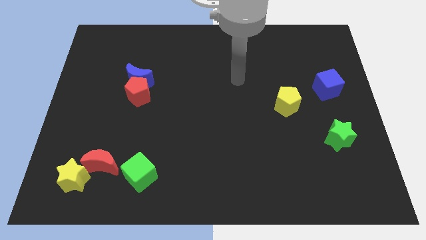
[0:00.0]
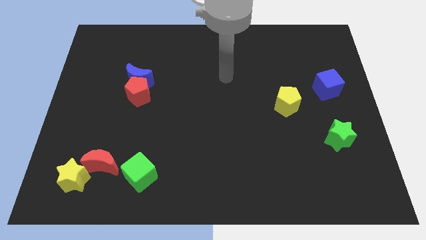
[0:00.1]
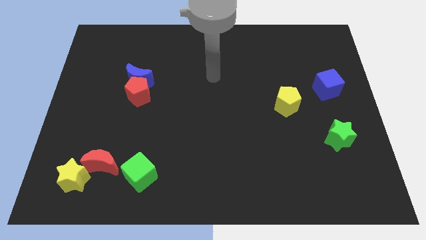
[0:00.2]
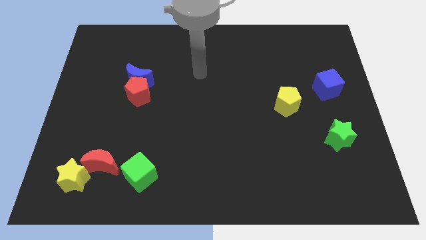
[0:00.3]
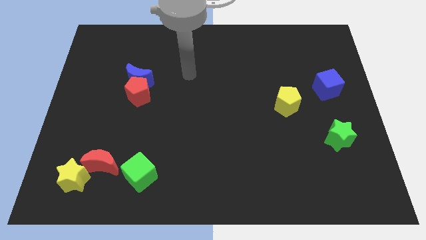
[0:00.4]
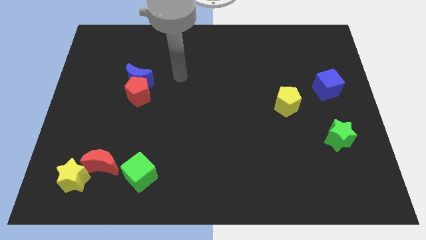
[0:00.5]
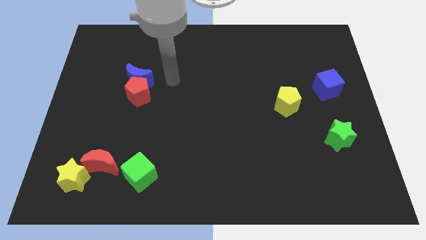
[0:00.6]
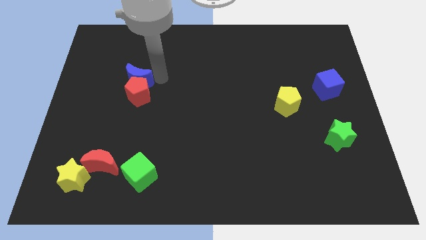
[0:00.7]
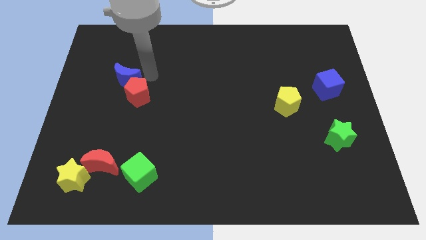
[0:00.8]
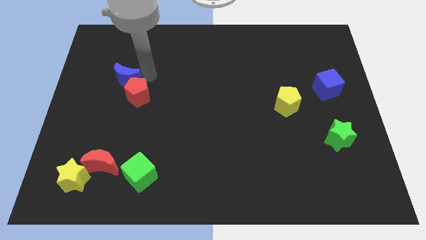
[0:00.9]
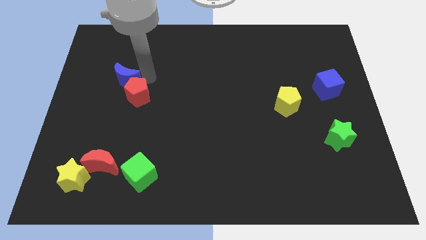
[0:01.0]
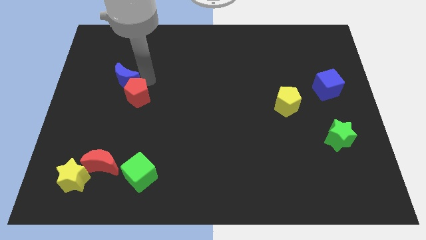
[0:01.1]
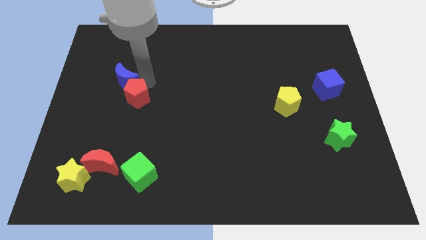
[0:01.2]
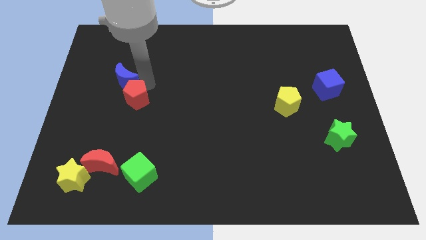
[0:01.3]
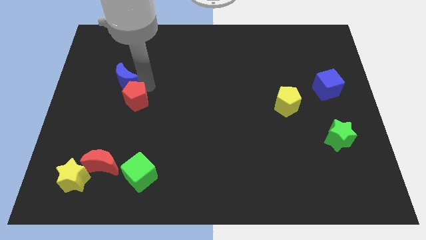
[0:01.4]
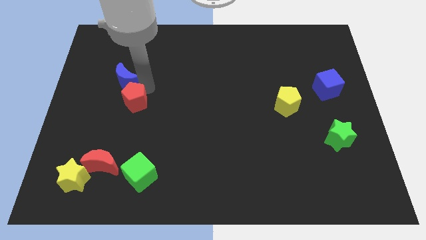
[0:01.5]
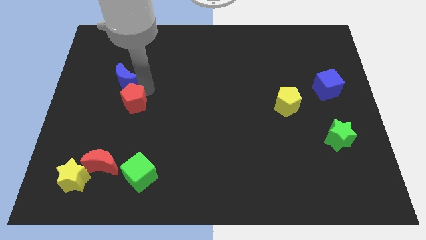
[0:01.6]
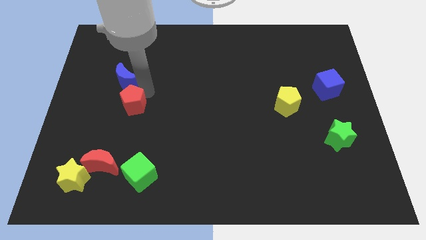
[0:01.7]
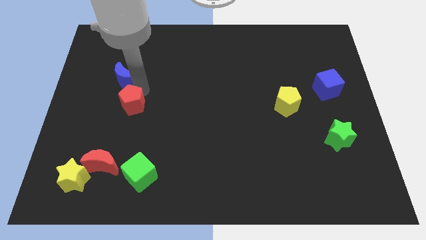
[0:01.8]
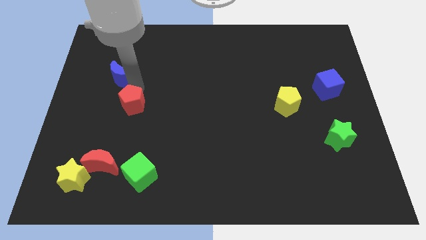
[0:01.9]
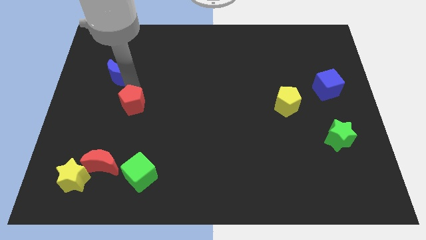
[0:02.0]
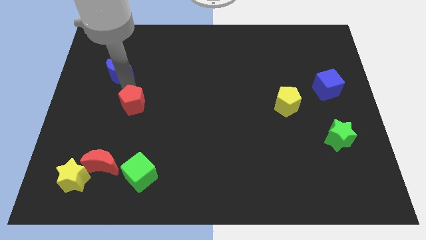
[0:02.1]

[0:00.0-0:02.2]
separate the red pentagon from the blue moon

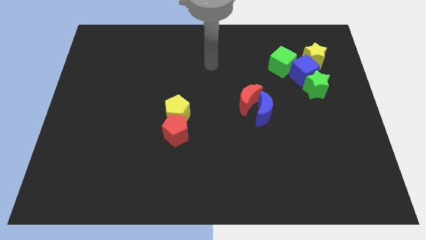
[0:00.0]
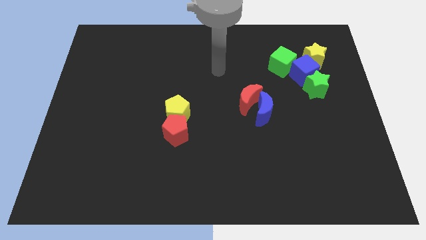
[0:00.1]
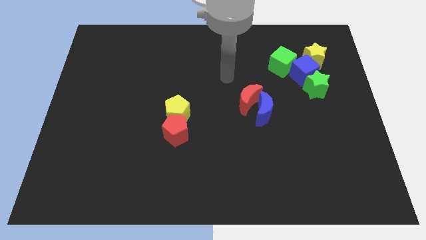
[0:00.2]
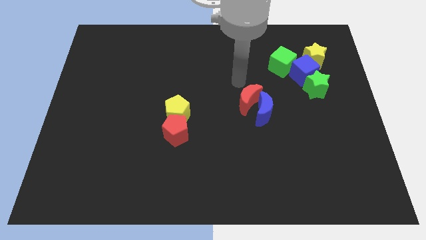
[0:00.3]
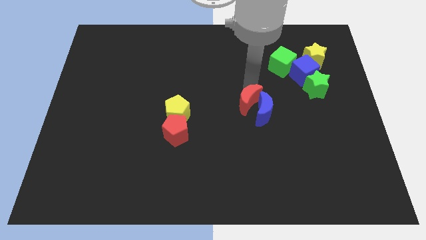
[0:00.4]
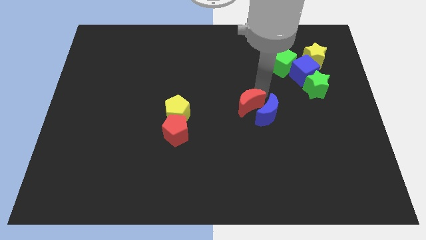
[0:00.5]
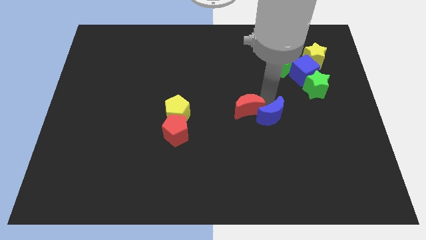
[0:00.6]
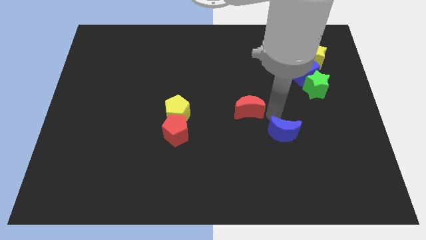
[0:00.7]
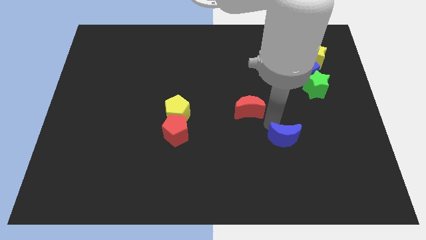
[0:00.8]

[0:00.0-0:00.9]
separate the red moon from the blue moon

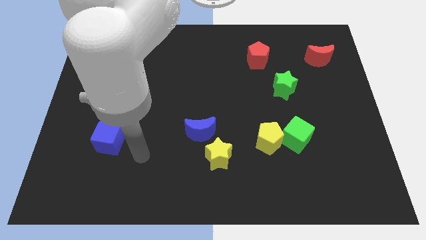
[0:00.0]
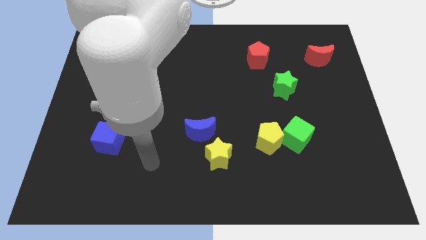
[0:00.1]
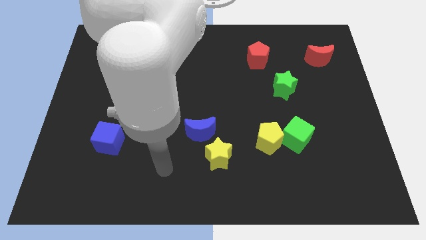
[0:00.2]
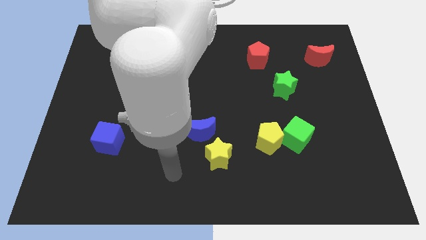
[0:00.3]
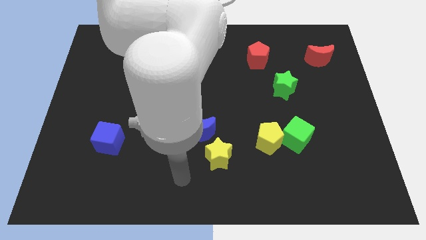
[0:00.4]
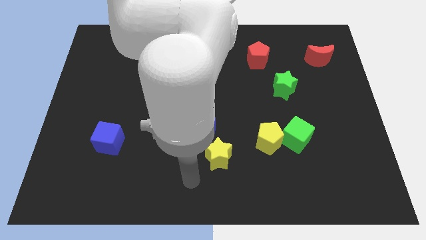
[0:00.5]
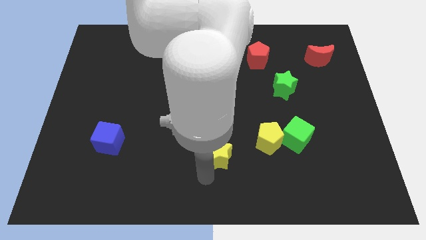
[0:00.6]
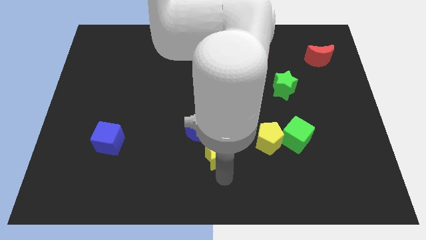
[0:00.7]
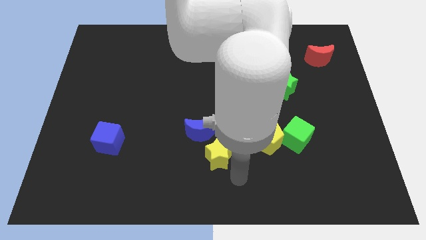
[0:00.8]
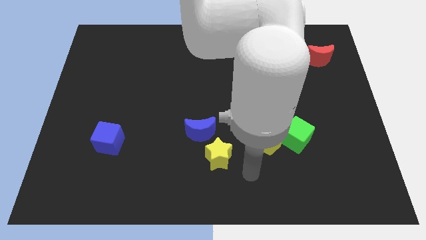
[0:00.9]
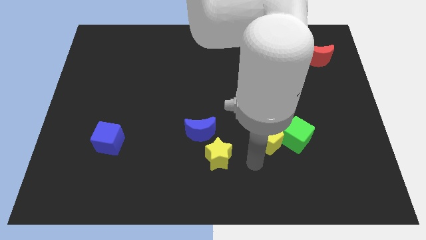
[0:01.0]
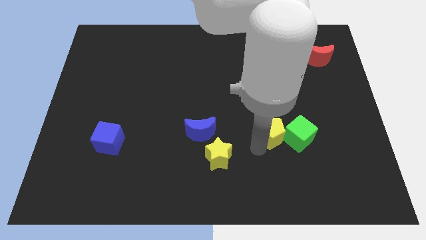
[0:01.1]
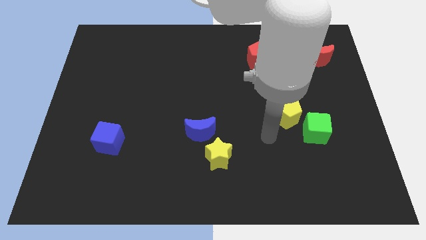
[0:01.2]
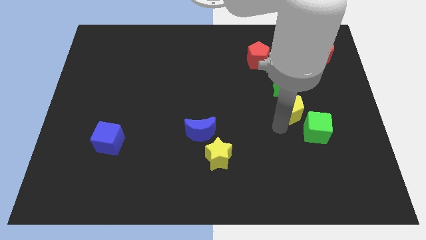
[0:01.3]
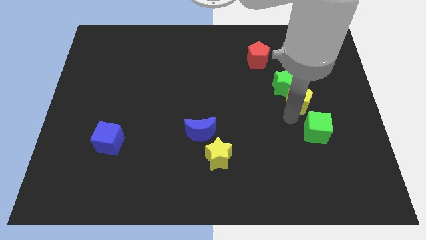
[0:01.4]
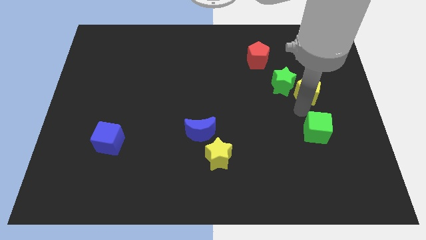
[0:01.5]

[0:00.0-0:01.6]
pull the green cube apart from the yellow pentagon

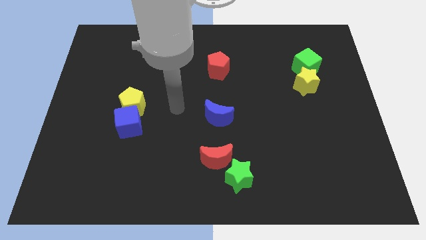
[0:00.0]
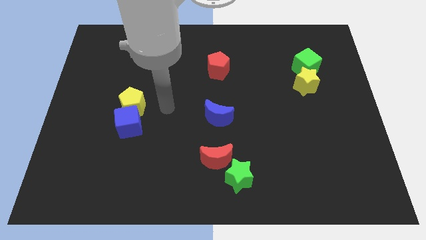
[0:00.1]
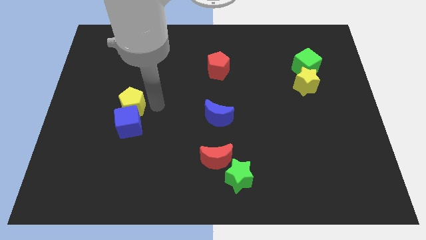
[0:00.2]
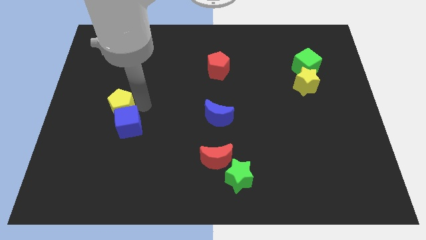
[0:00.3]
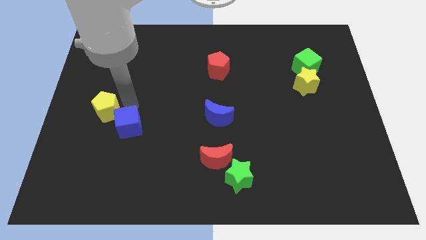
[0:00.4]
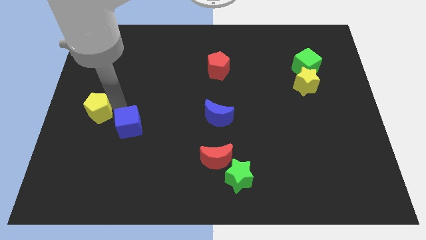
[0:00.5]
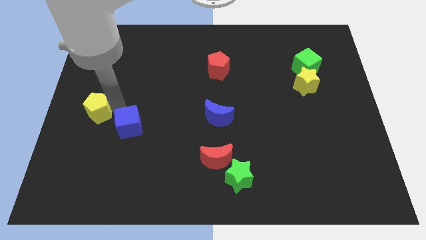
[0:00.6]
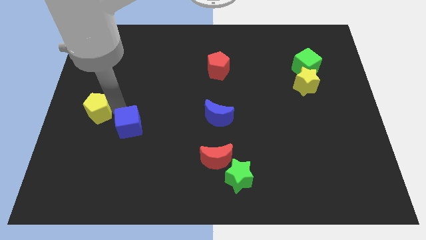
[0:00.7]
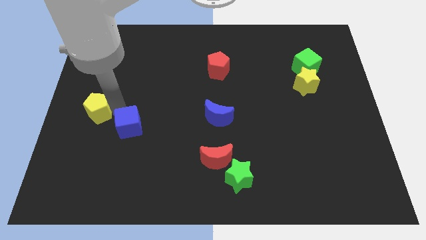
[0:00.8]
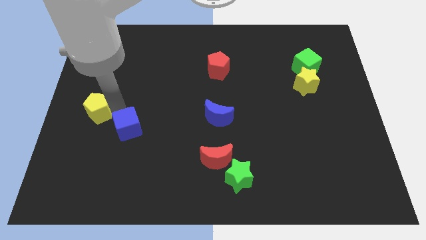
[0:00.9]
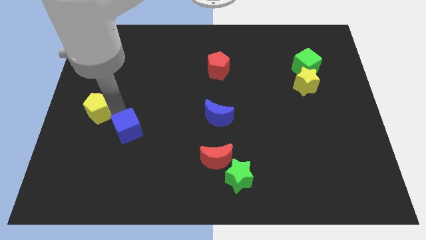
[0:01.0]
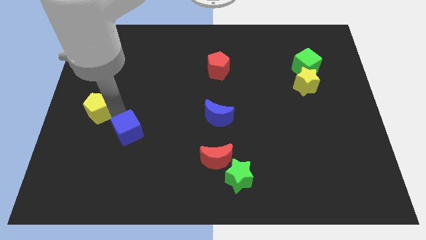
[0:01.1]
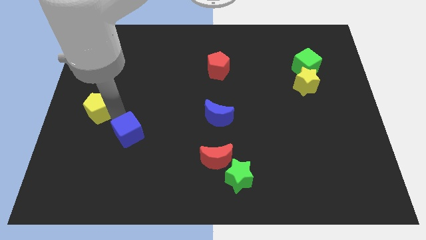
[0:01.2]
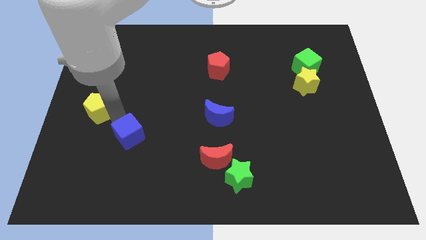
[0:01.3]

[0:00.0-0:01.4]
separate the blue cube from the yellow pentagon

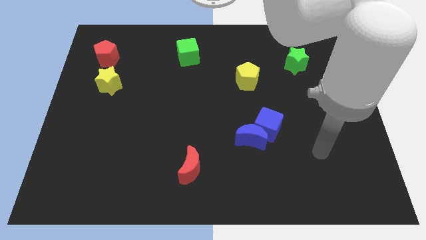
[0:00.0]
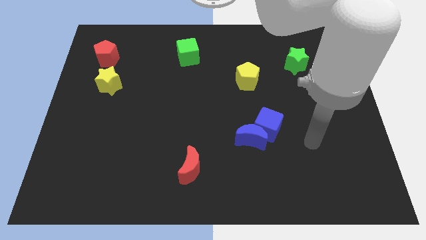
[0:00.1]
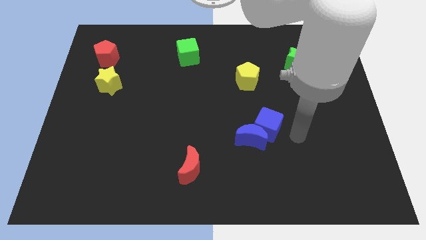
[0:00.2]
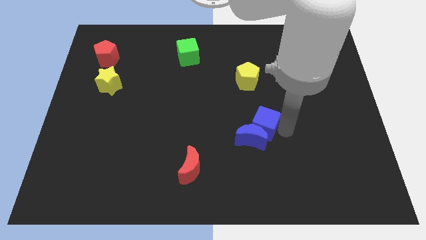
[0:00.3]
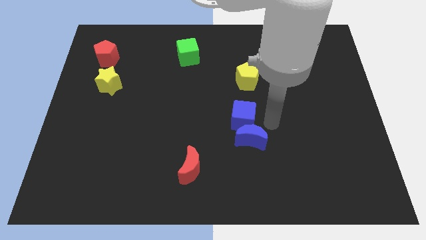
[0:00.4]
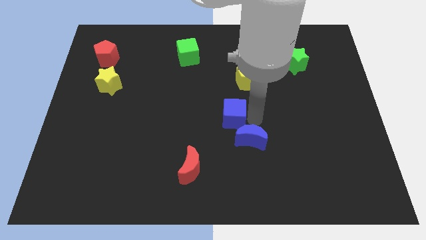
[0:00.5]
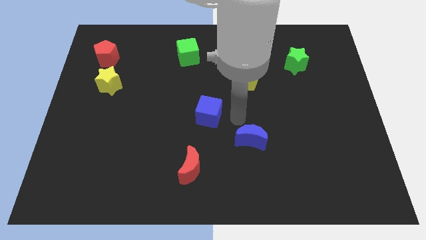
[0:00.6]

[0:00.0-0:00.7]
pull the blue moon apart from the blue cube

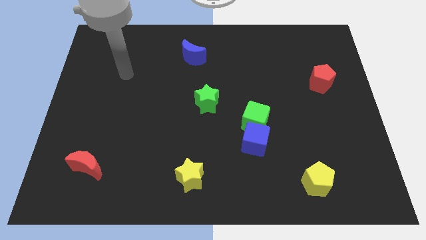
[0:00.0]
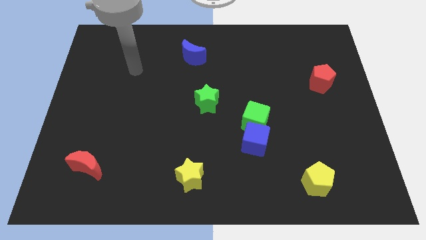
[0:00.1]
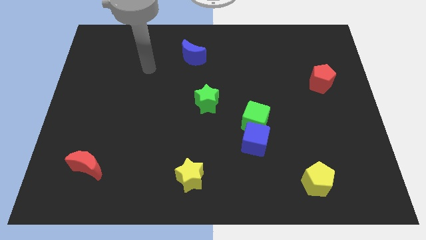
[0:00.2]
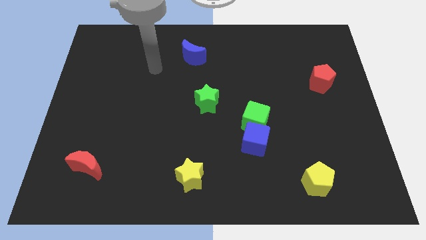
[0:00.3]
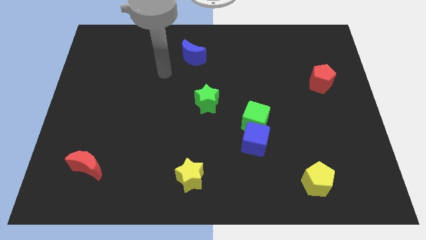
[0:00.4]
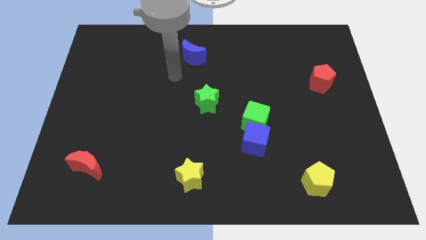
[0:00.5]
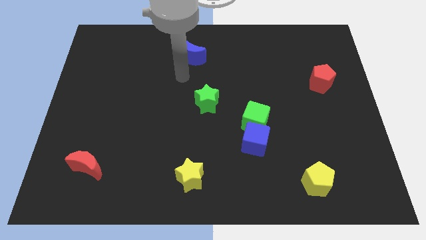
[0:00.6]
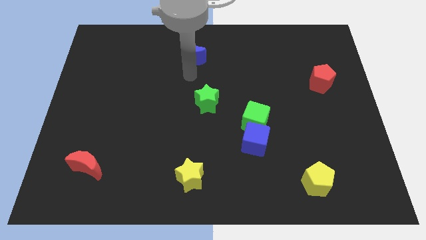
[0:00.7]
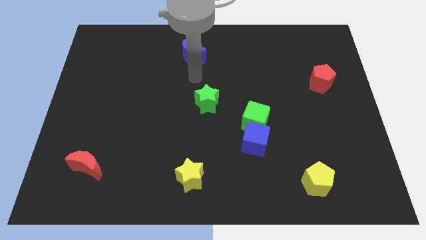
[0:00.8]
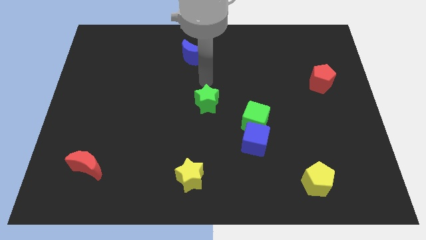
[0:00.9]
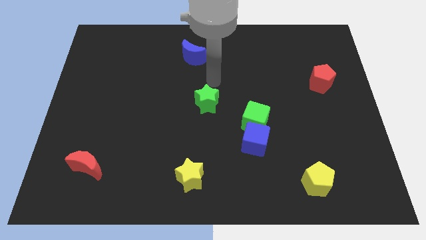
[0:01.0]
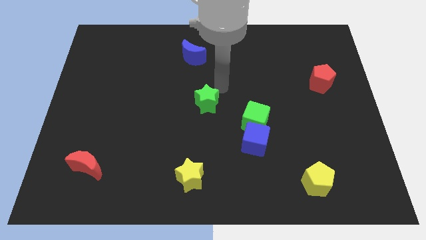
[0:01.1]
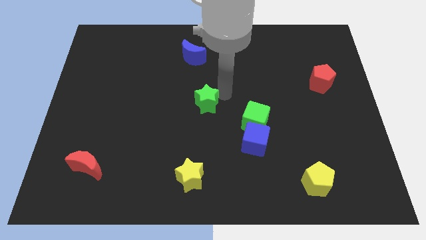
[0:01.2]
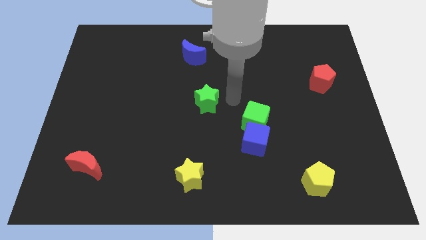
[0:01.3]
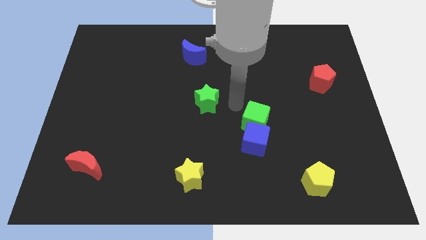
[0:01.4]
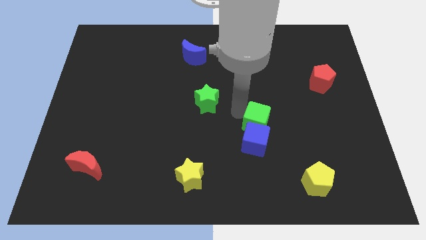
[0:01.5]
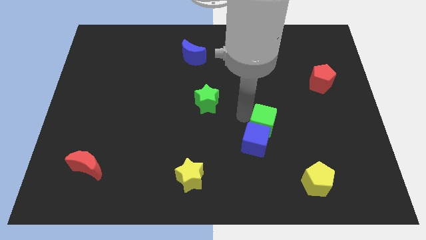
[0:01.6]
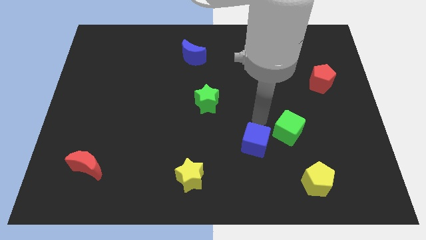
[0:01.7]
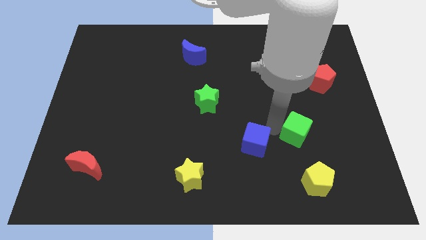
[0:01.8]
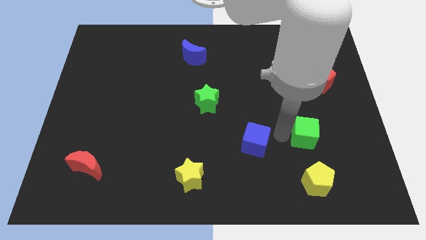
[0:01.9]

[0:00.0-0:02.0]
move the blue cube away from the green cube

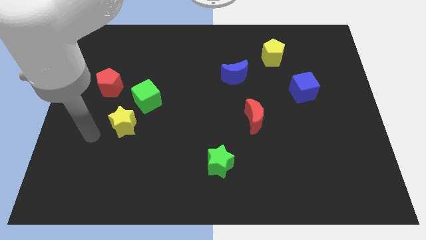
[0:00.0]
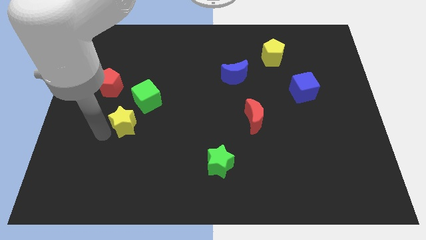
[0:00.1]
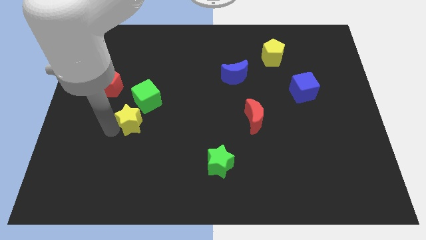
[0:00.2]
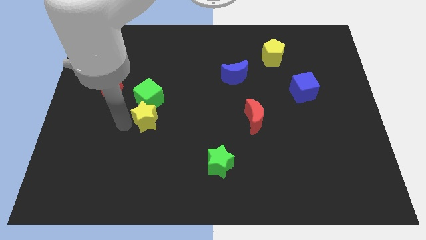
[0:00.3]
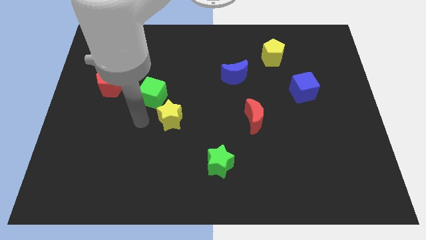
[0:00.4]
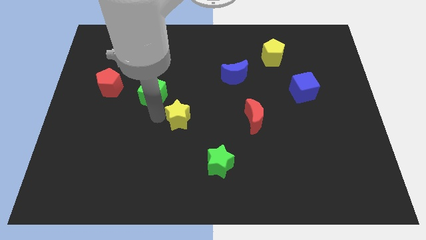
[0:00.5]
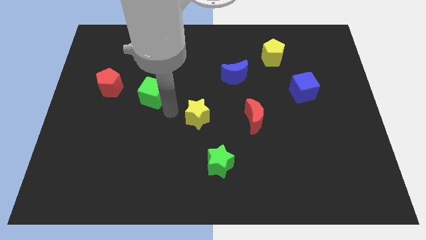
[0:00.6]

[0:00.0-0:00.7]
move the green cube away from the yellow star
